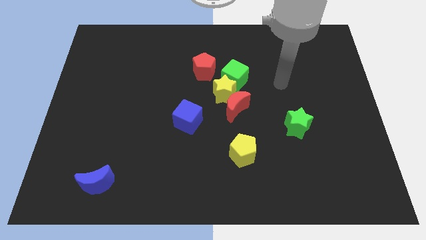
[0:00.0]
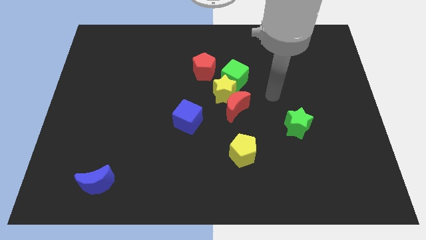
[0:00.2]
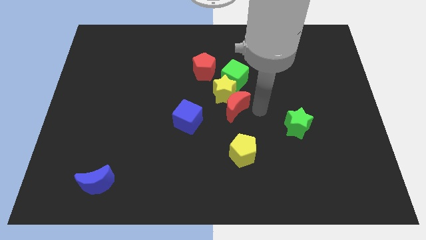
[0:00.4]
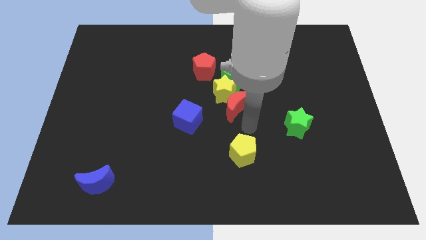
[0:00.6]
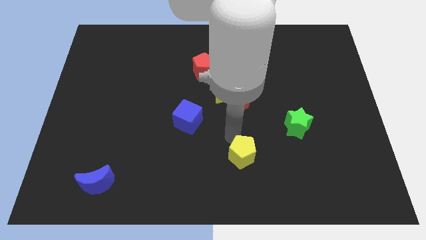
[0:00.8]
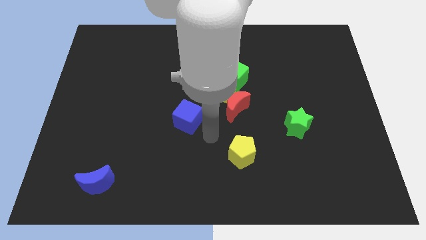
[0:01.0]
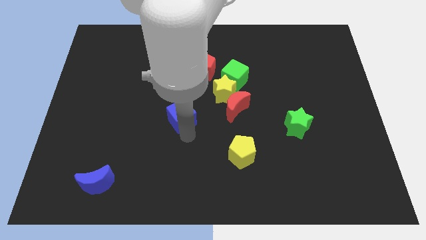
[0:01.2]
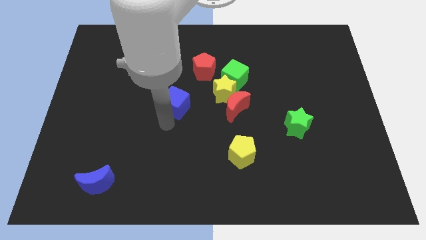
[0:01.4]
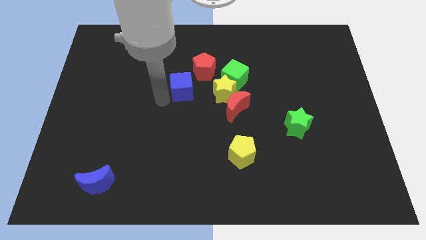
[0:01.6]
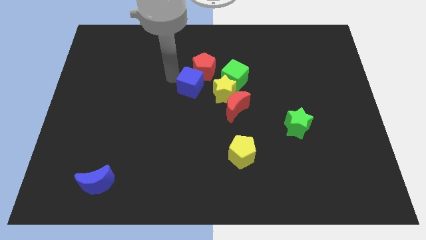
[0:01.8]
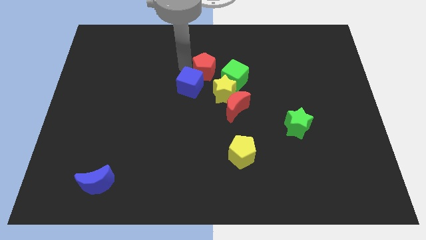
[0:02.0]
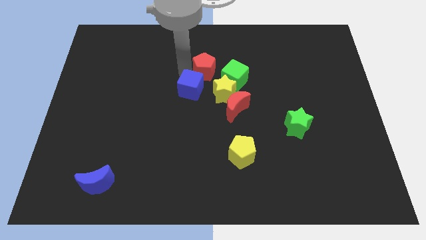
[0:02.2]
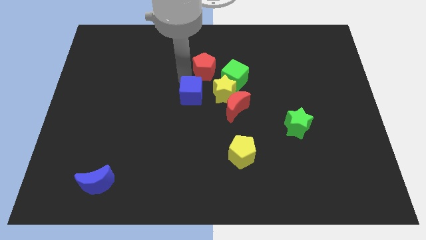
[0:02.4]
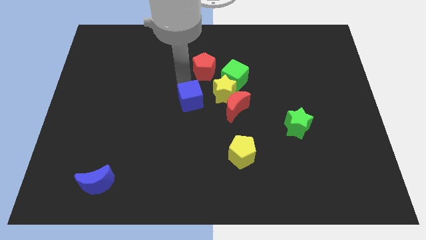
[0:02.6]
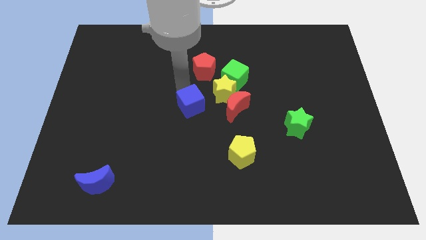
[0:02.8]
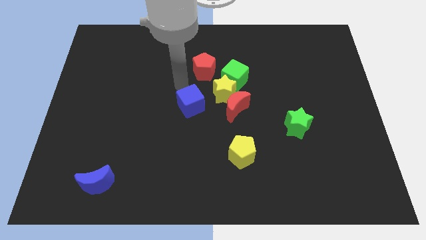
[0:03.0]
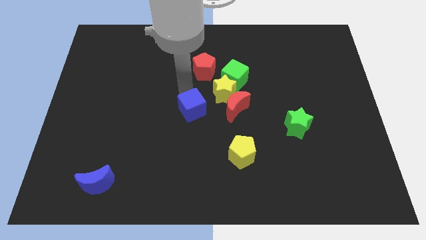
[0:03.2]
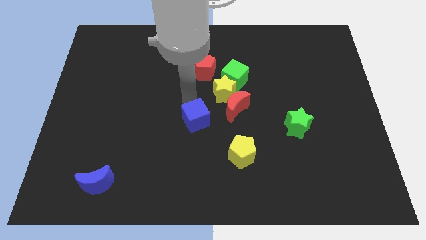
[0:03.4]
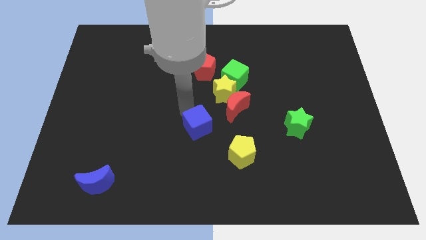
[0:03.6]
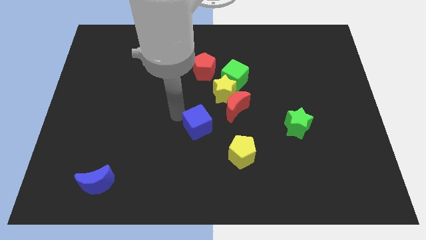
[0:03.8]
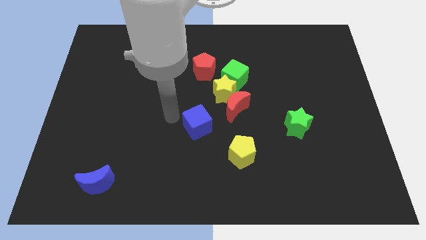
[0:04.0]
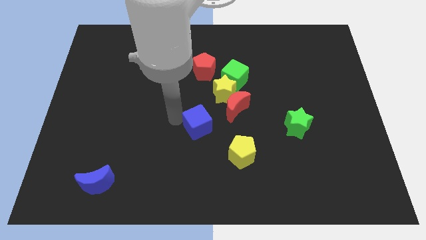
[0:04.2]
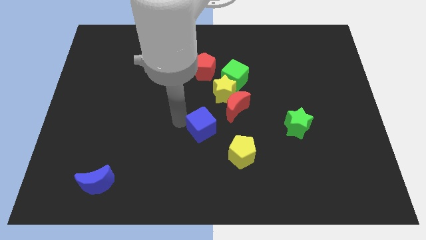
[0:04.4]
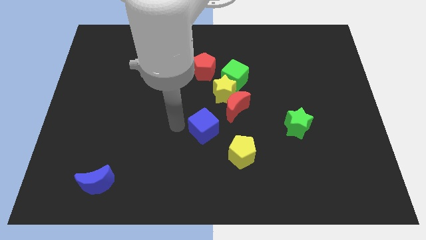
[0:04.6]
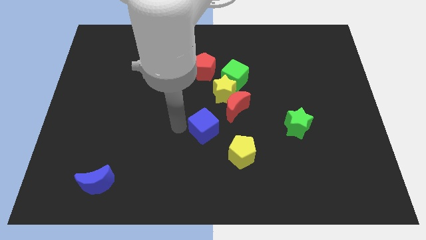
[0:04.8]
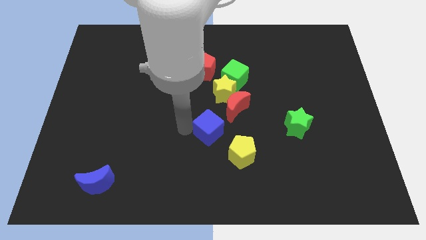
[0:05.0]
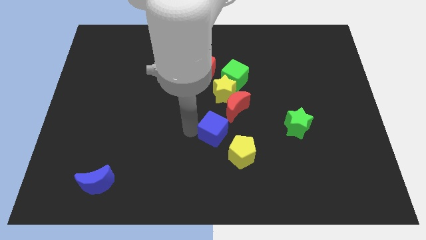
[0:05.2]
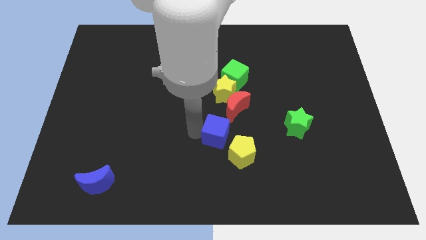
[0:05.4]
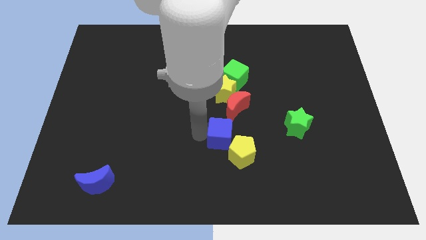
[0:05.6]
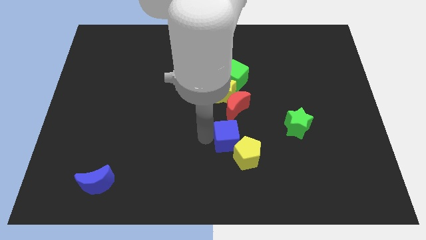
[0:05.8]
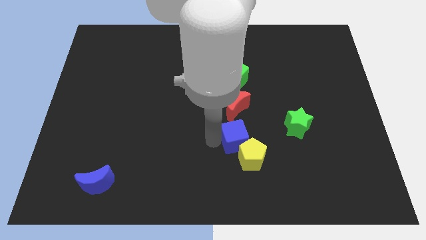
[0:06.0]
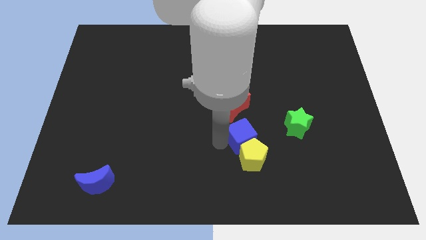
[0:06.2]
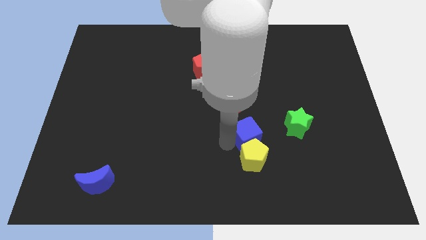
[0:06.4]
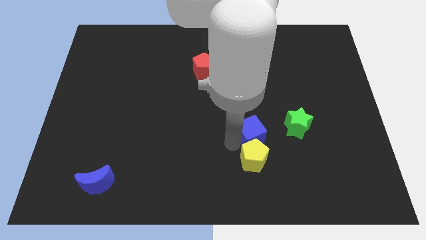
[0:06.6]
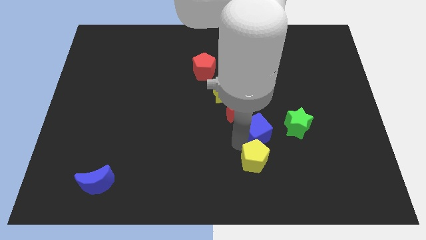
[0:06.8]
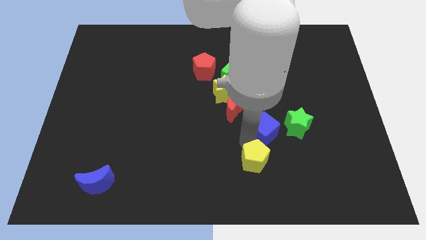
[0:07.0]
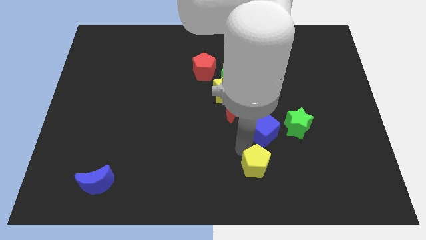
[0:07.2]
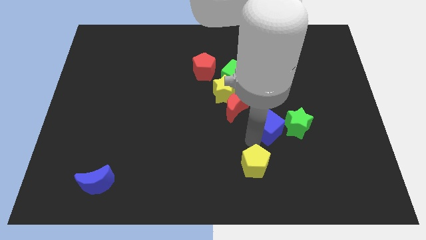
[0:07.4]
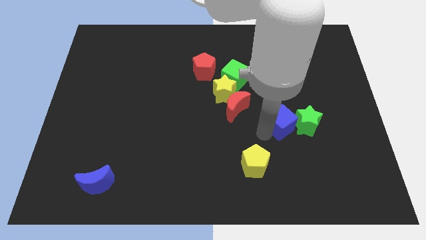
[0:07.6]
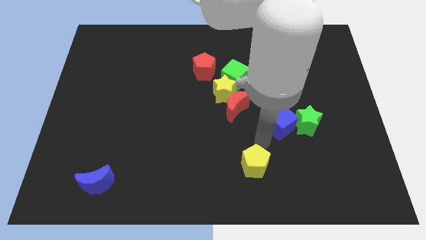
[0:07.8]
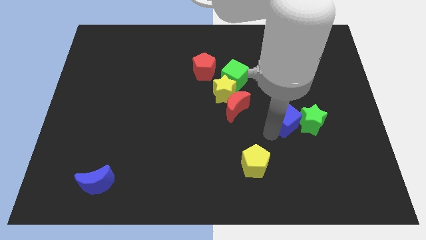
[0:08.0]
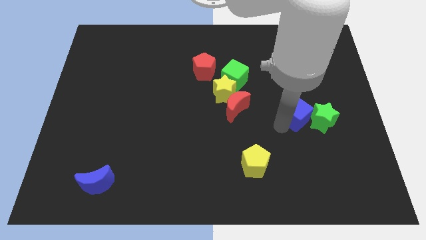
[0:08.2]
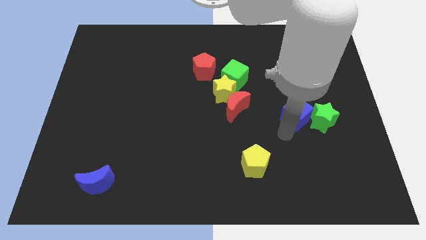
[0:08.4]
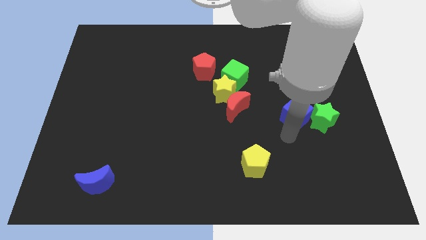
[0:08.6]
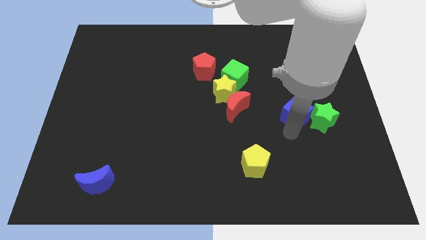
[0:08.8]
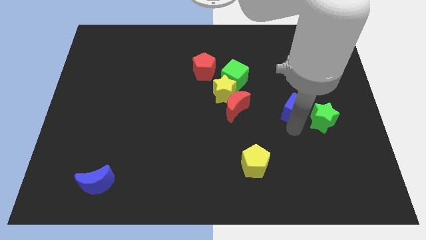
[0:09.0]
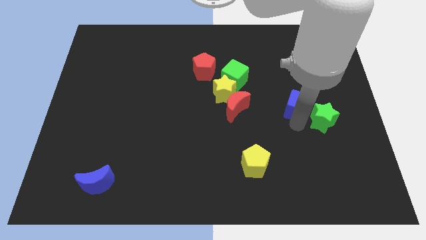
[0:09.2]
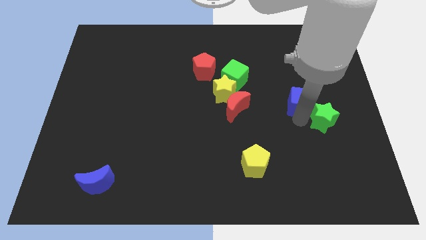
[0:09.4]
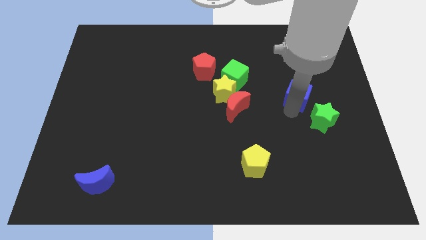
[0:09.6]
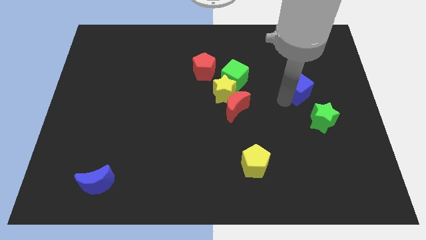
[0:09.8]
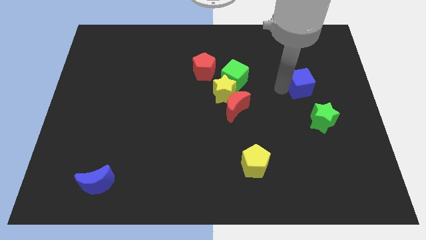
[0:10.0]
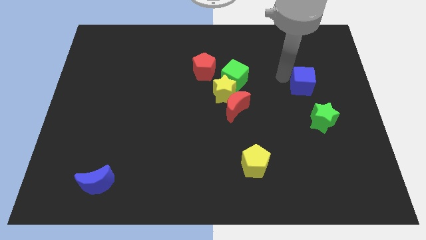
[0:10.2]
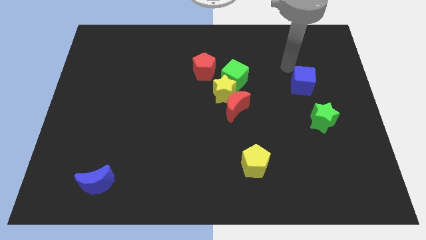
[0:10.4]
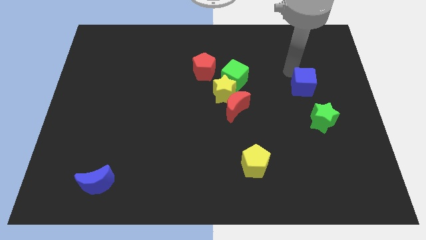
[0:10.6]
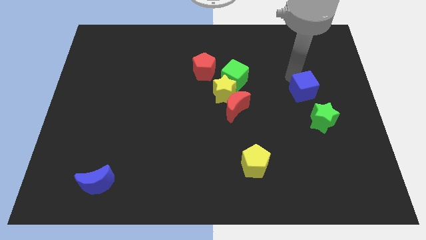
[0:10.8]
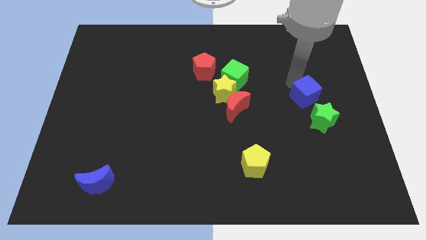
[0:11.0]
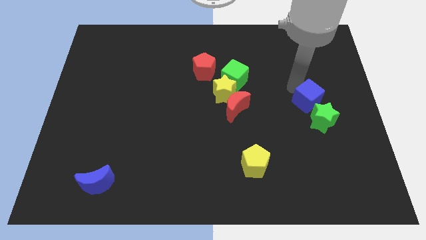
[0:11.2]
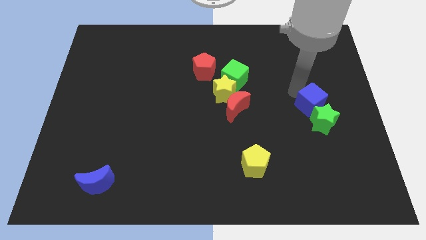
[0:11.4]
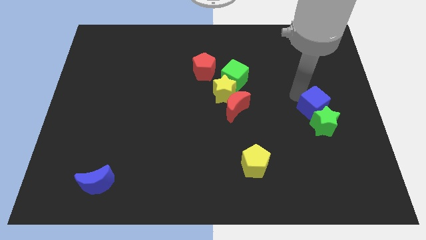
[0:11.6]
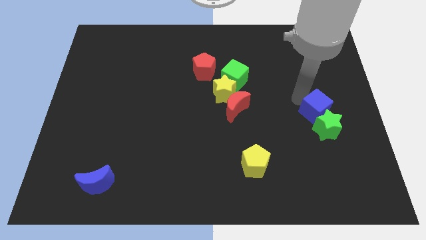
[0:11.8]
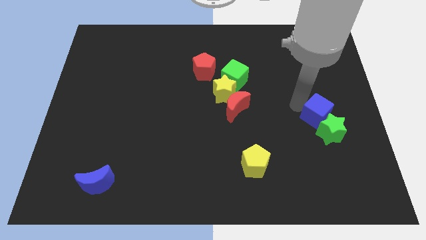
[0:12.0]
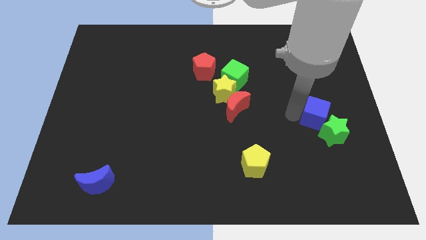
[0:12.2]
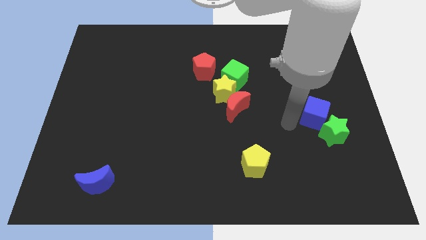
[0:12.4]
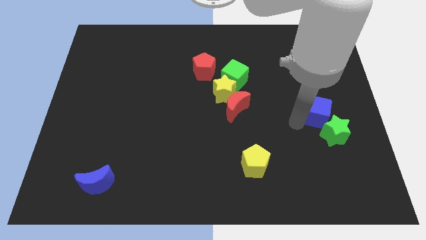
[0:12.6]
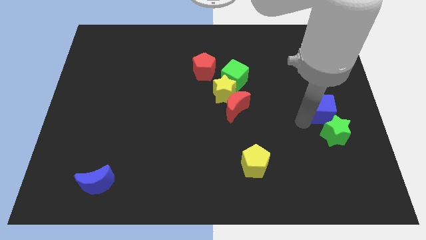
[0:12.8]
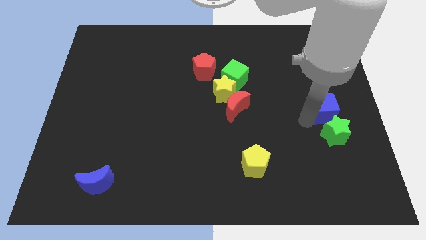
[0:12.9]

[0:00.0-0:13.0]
slide the blue cube to the right side of the board

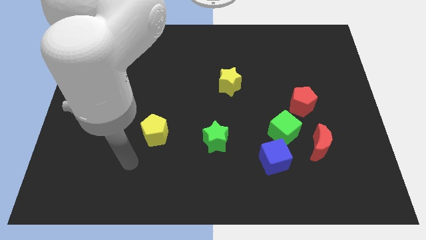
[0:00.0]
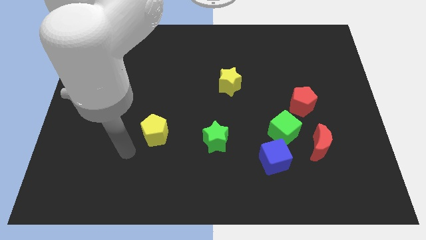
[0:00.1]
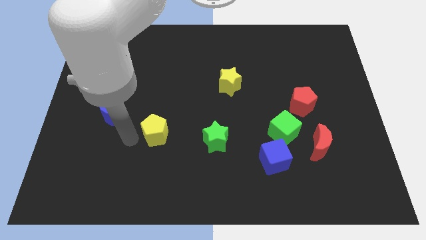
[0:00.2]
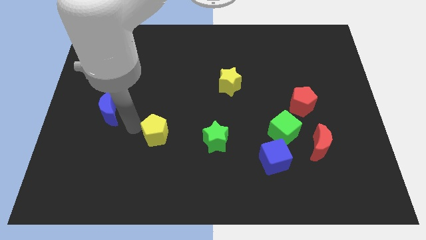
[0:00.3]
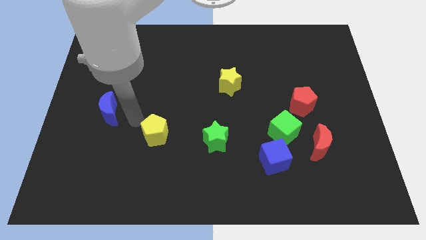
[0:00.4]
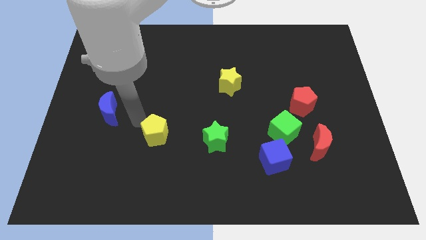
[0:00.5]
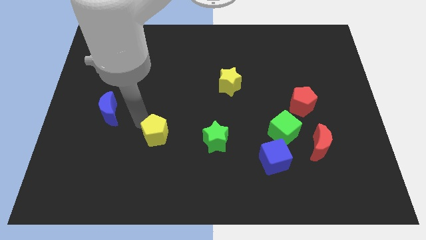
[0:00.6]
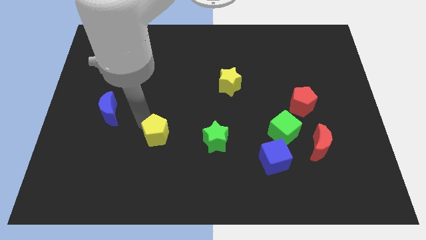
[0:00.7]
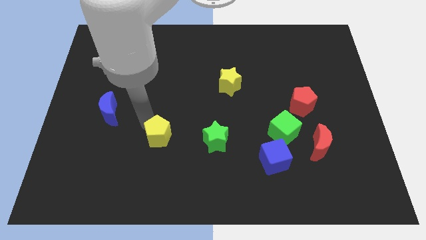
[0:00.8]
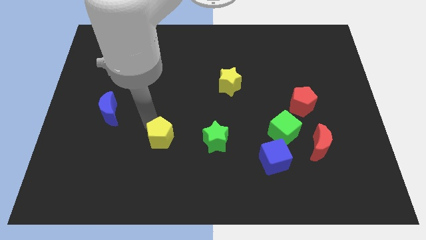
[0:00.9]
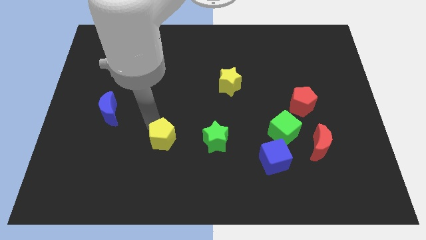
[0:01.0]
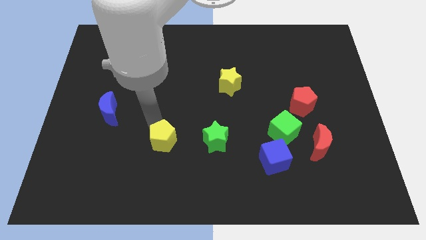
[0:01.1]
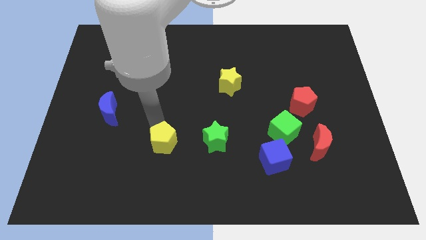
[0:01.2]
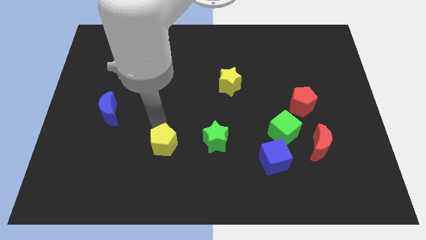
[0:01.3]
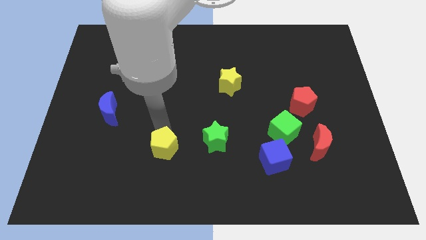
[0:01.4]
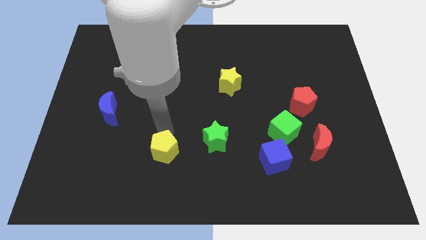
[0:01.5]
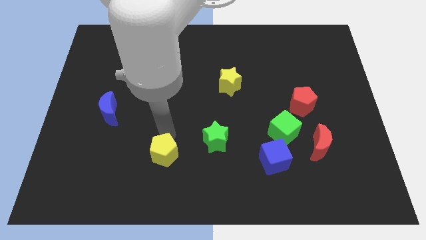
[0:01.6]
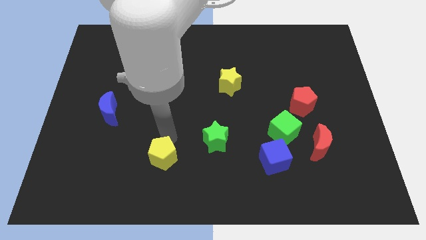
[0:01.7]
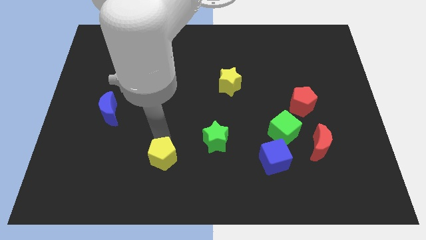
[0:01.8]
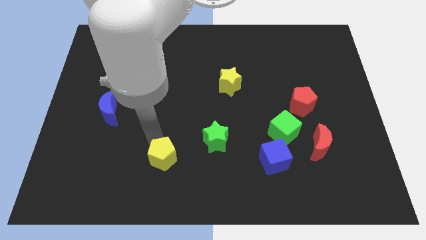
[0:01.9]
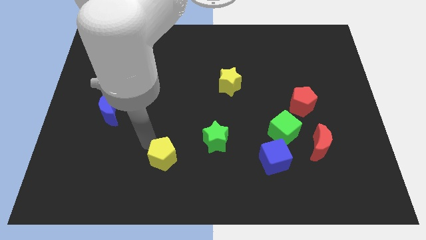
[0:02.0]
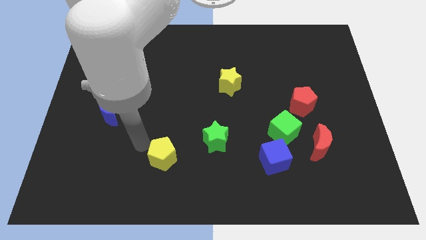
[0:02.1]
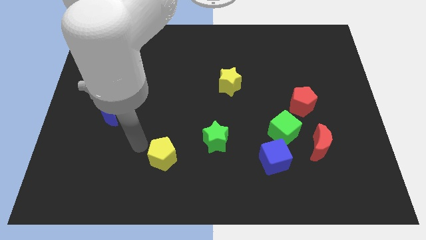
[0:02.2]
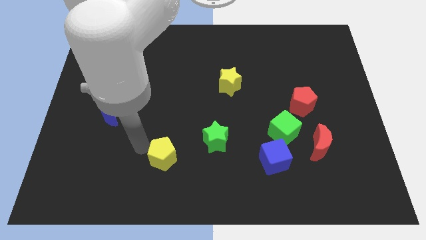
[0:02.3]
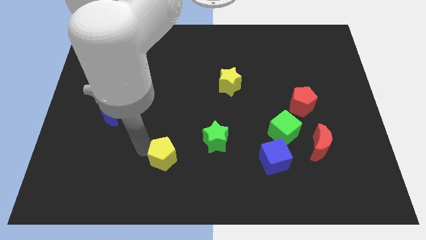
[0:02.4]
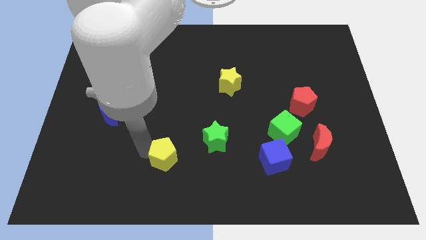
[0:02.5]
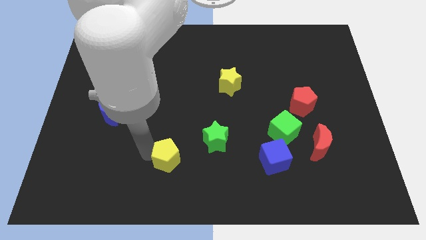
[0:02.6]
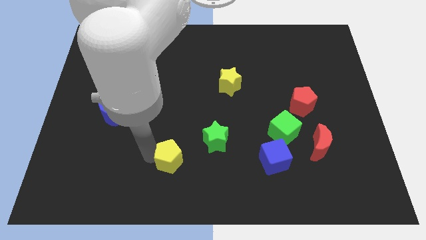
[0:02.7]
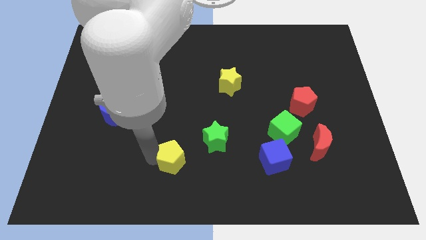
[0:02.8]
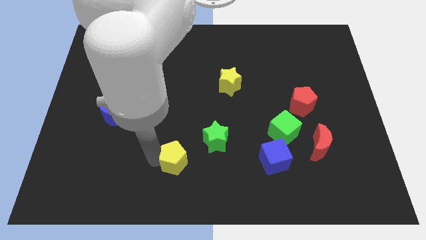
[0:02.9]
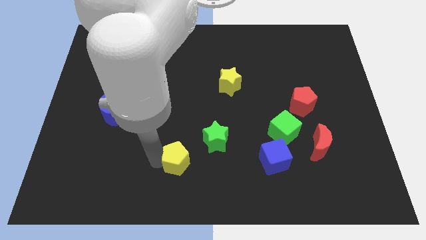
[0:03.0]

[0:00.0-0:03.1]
push the yellow pentagon to the bottom
